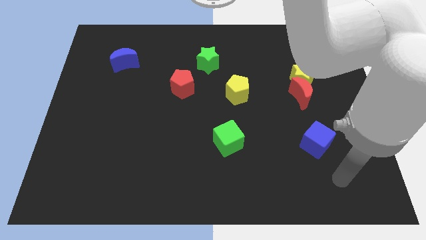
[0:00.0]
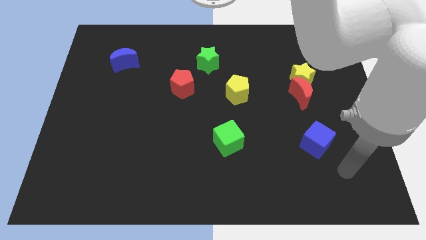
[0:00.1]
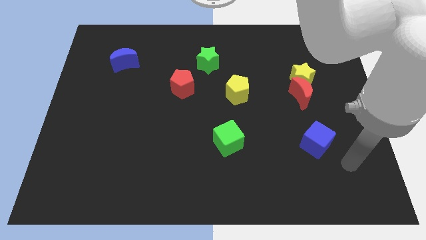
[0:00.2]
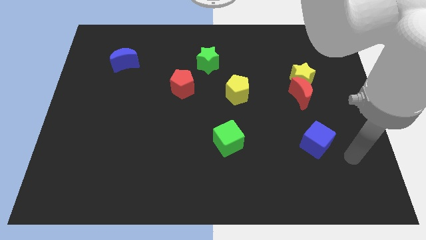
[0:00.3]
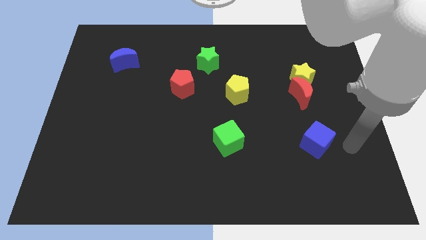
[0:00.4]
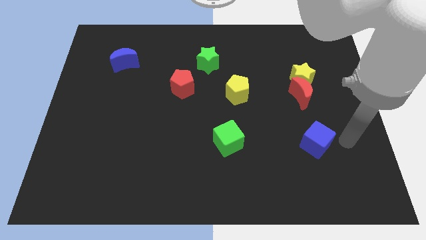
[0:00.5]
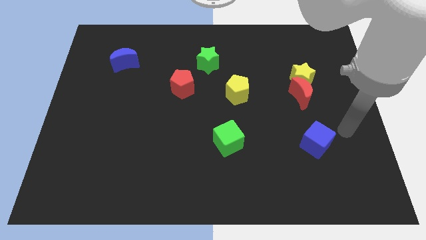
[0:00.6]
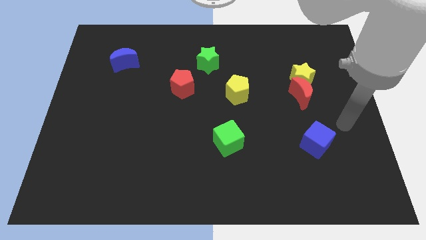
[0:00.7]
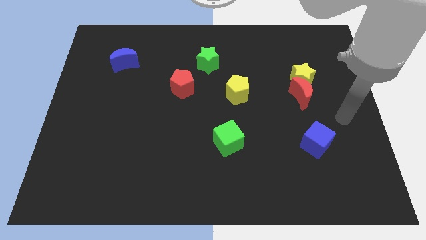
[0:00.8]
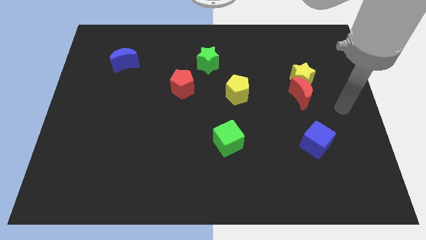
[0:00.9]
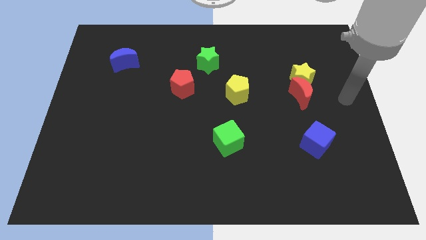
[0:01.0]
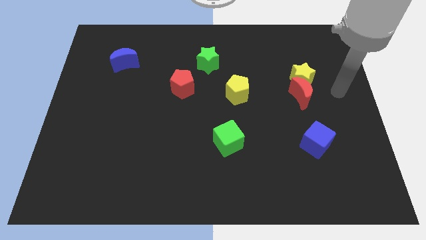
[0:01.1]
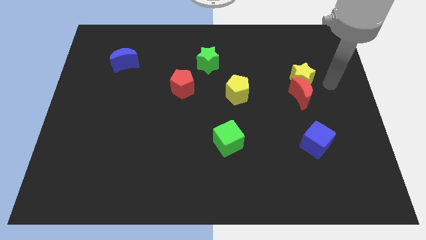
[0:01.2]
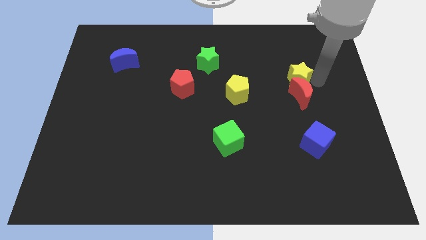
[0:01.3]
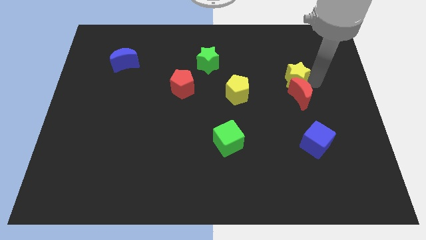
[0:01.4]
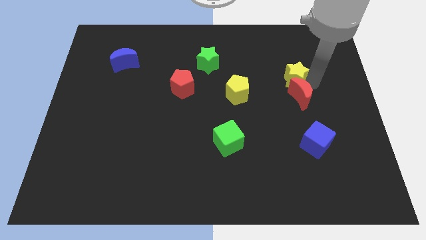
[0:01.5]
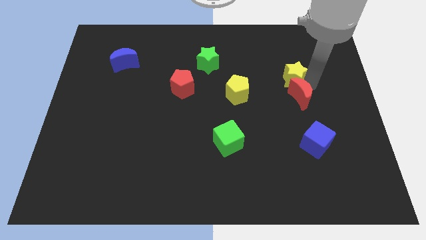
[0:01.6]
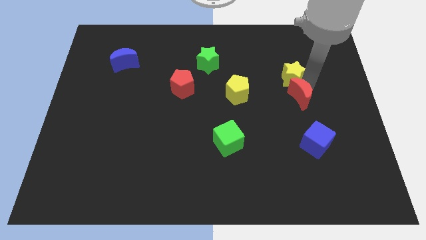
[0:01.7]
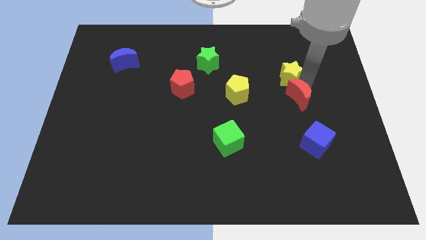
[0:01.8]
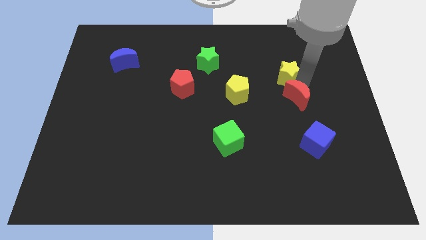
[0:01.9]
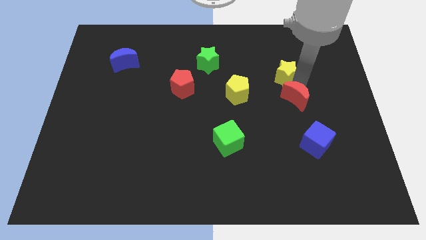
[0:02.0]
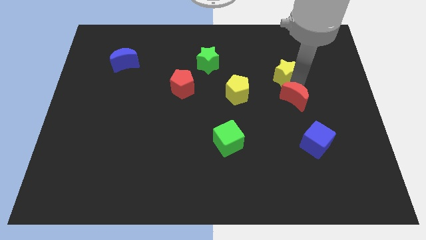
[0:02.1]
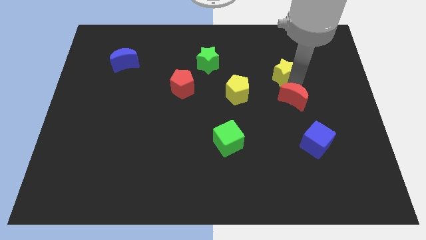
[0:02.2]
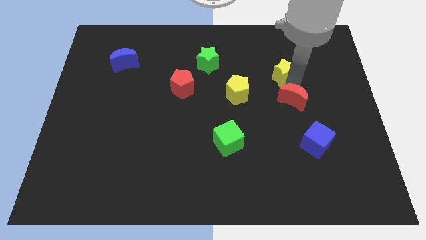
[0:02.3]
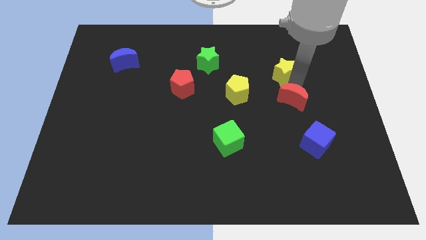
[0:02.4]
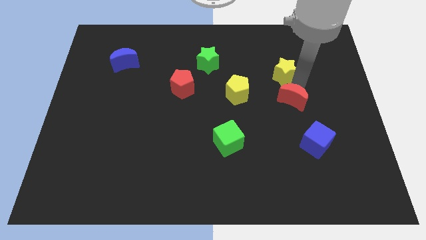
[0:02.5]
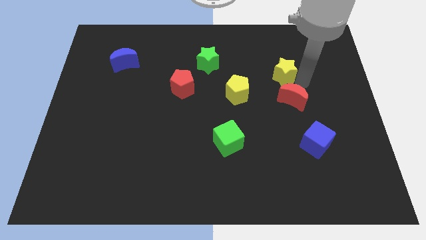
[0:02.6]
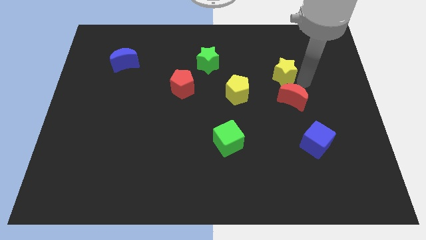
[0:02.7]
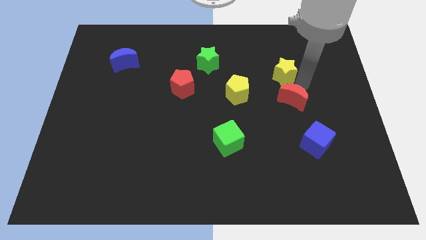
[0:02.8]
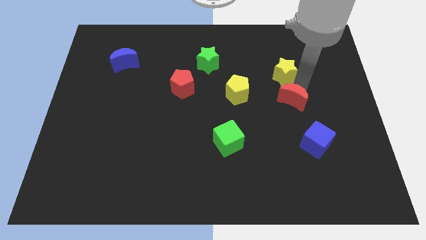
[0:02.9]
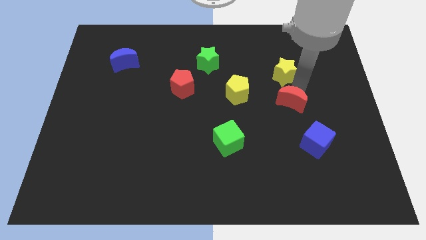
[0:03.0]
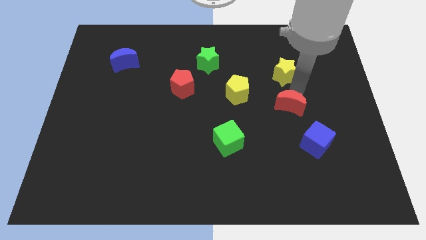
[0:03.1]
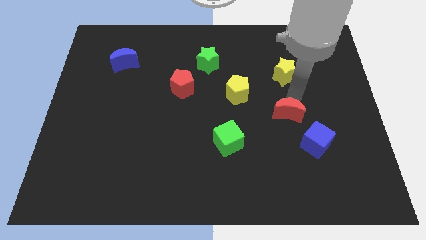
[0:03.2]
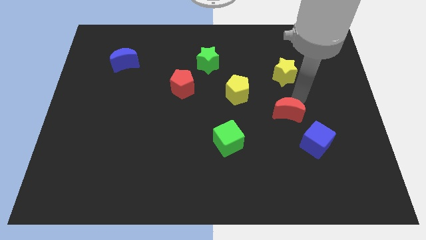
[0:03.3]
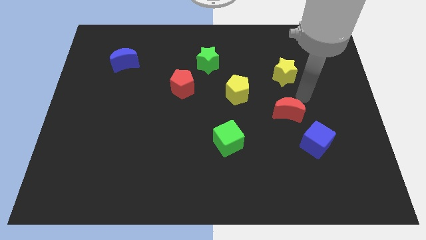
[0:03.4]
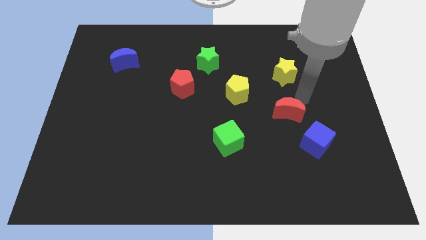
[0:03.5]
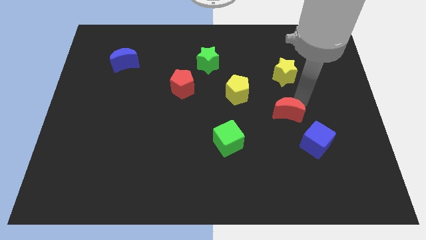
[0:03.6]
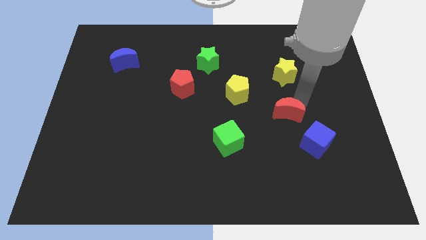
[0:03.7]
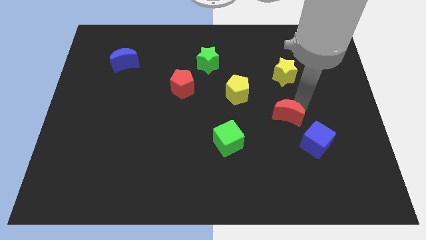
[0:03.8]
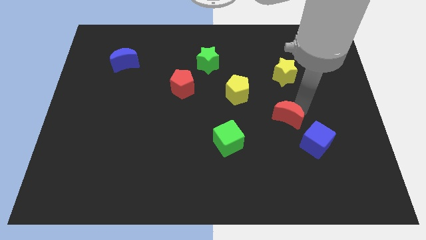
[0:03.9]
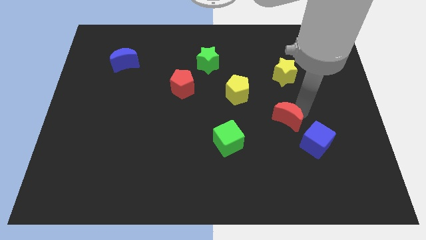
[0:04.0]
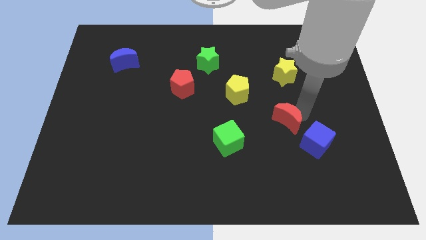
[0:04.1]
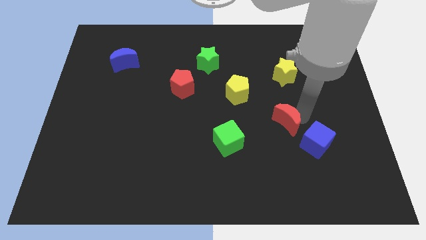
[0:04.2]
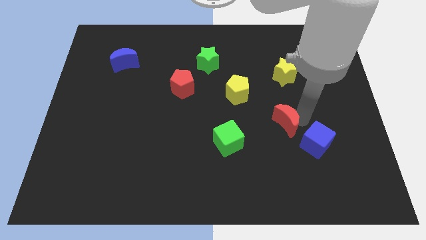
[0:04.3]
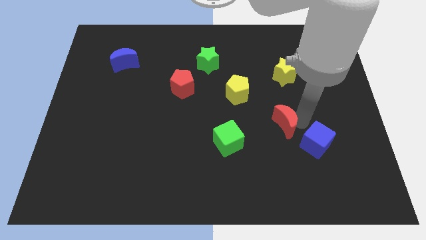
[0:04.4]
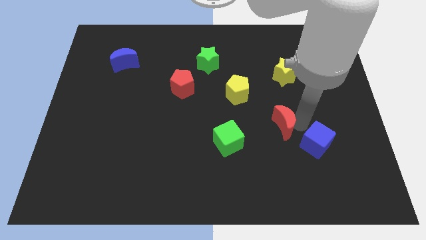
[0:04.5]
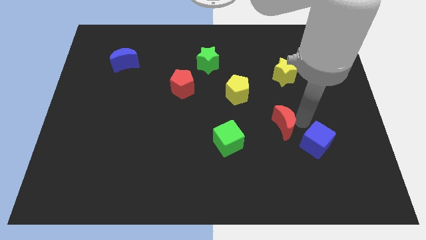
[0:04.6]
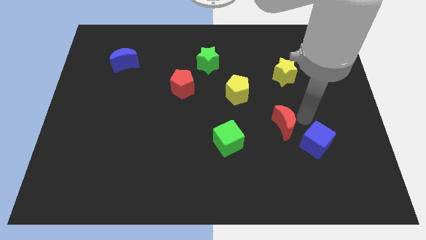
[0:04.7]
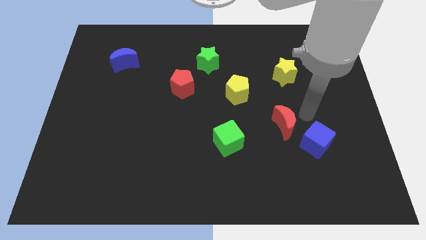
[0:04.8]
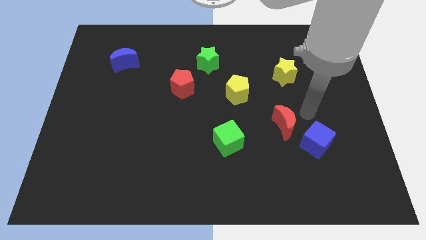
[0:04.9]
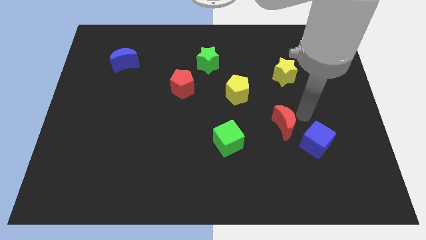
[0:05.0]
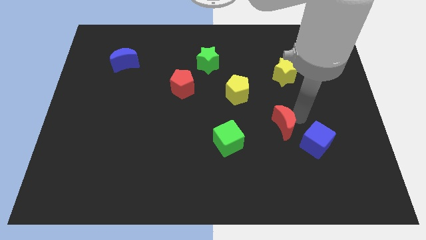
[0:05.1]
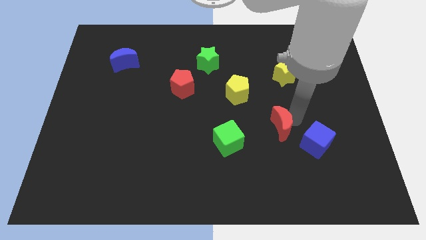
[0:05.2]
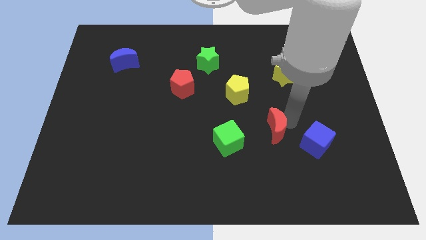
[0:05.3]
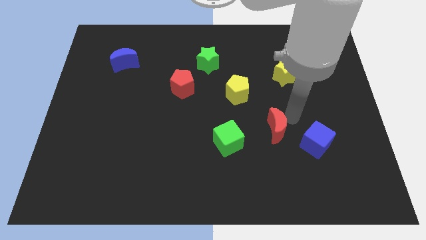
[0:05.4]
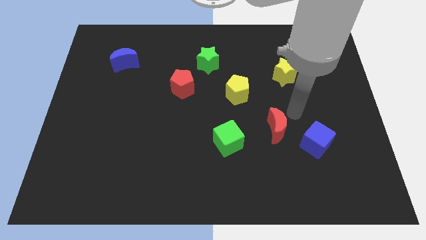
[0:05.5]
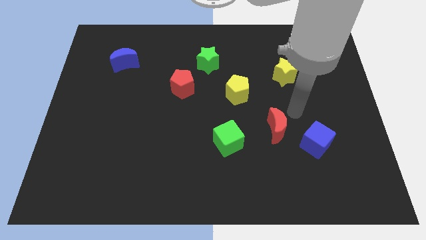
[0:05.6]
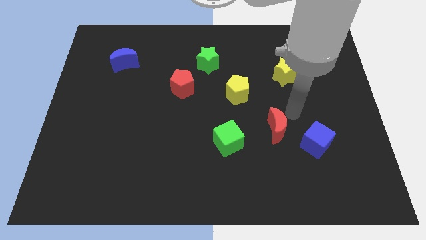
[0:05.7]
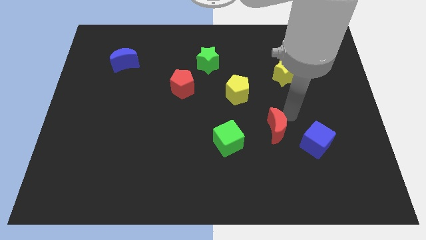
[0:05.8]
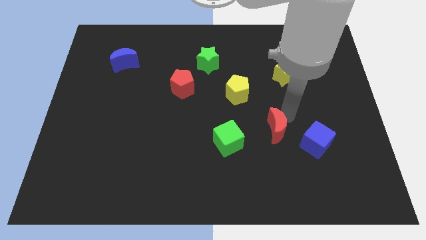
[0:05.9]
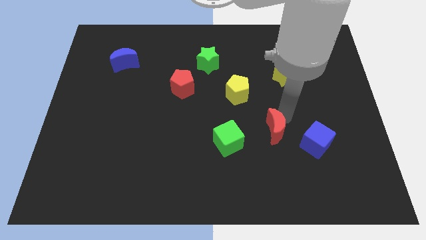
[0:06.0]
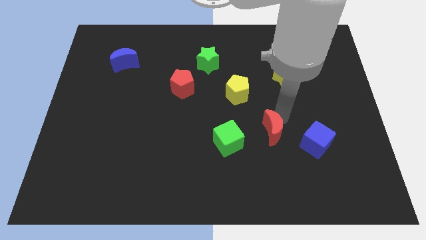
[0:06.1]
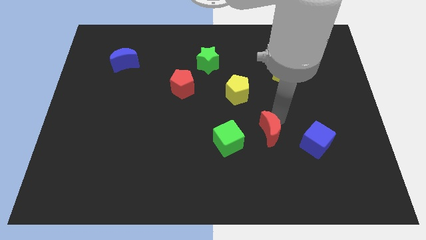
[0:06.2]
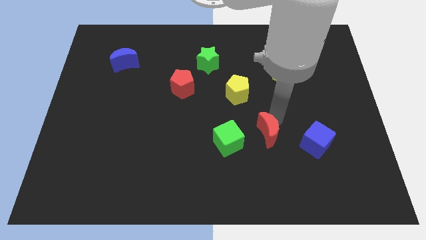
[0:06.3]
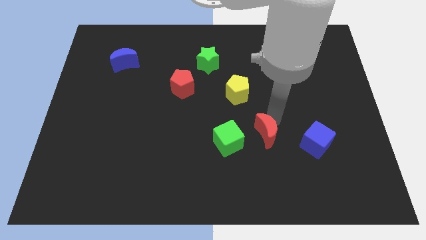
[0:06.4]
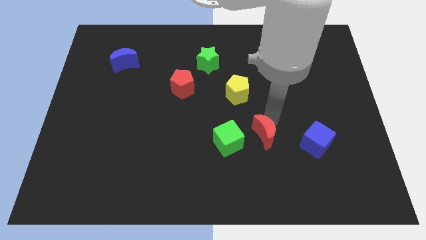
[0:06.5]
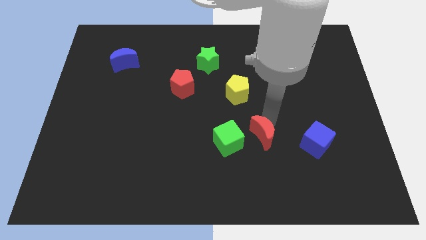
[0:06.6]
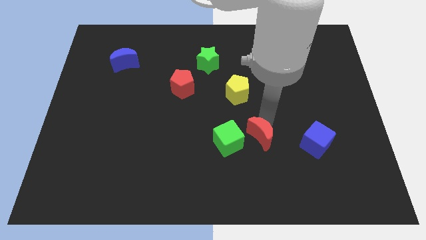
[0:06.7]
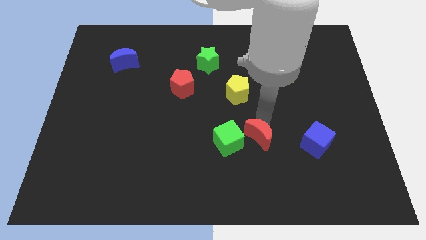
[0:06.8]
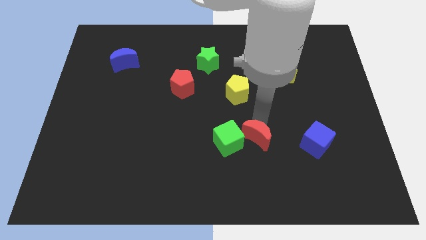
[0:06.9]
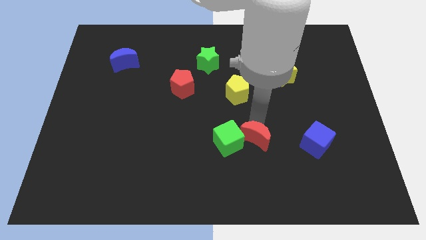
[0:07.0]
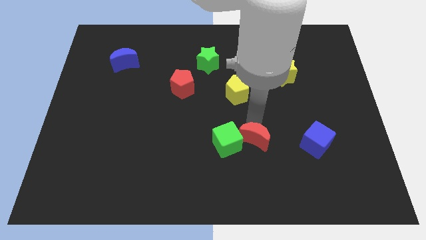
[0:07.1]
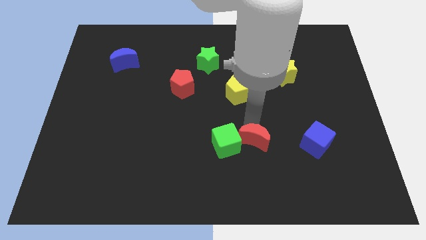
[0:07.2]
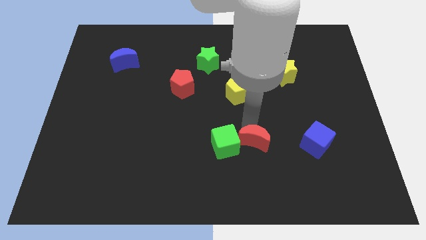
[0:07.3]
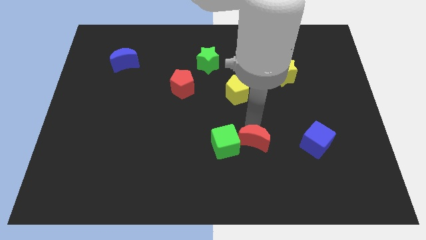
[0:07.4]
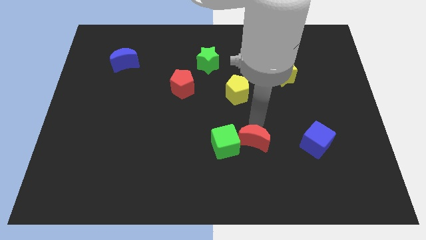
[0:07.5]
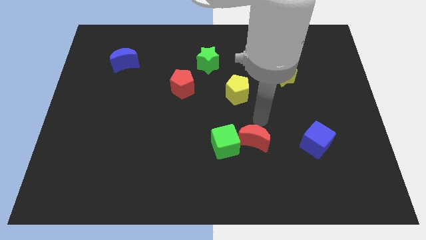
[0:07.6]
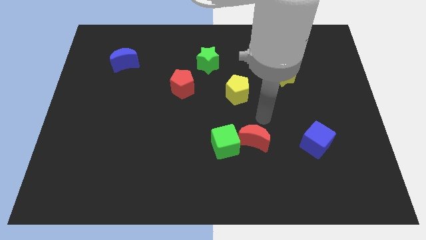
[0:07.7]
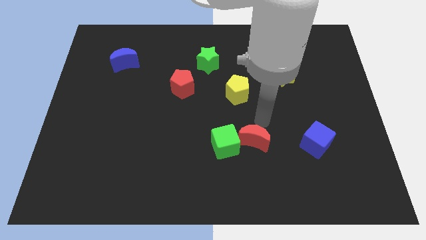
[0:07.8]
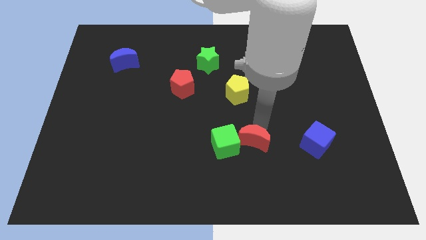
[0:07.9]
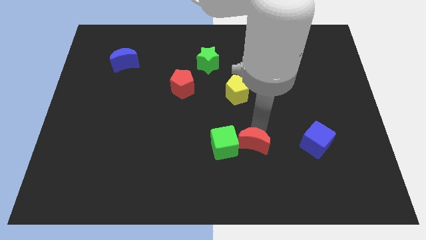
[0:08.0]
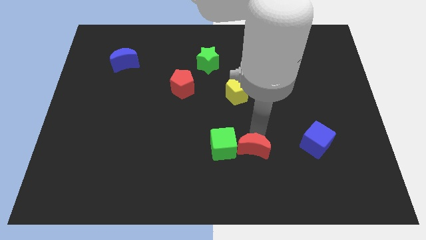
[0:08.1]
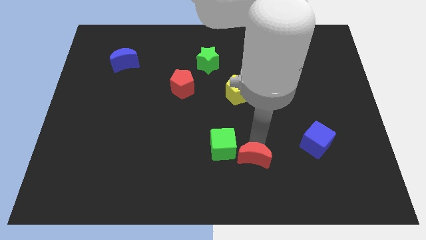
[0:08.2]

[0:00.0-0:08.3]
slide the red moon down and left

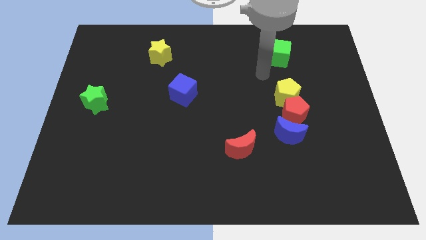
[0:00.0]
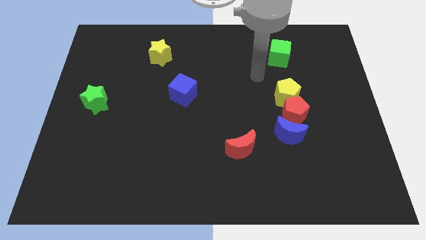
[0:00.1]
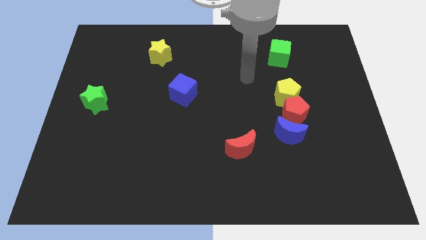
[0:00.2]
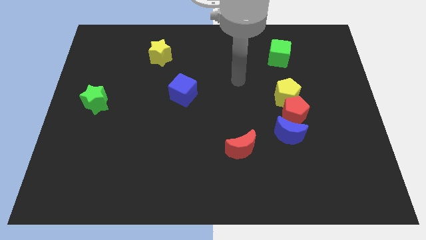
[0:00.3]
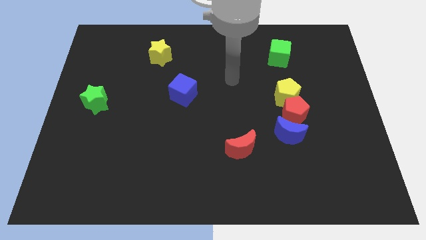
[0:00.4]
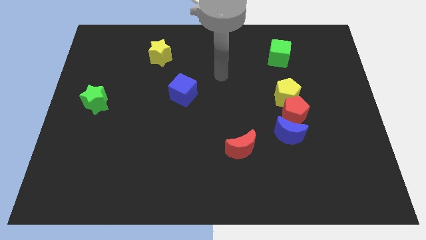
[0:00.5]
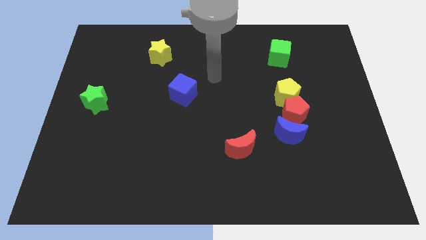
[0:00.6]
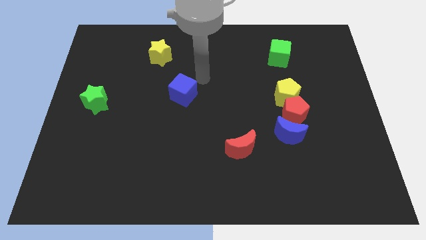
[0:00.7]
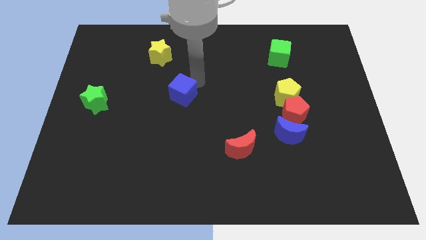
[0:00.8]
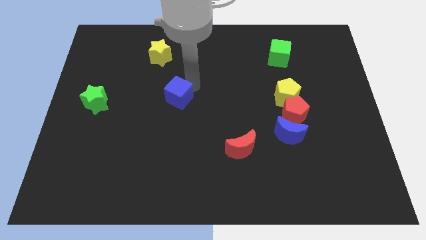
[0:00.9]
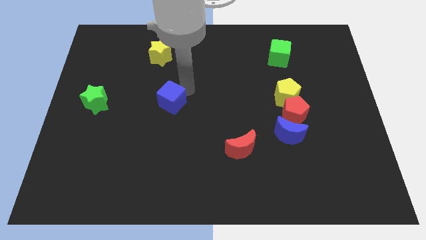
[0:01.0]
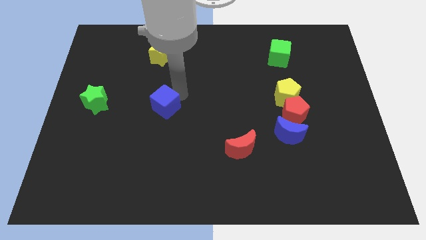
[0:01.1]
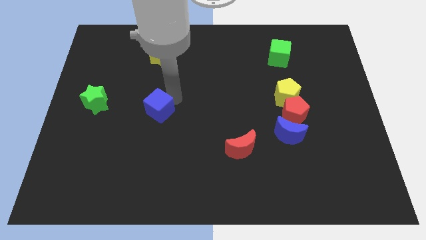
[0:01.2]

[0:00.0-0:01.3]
move the blue cube down and to the left diagonally a little
